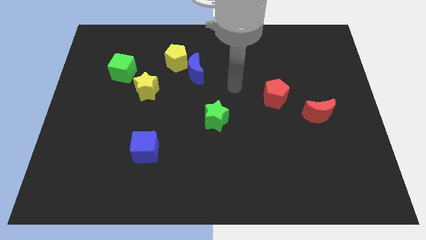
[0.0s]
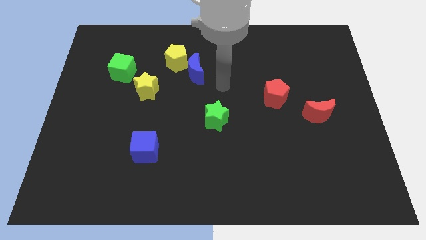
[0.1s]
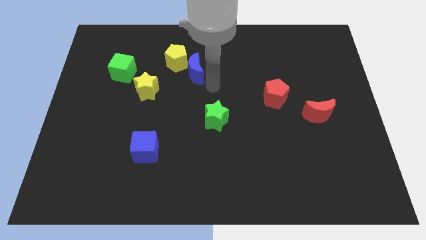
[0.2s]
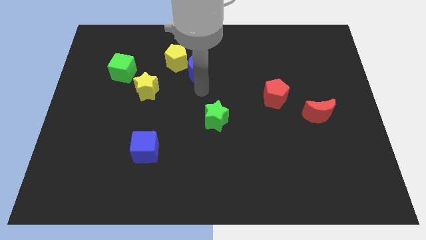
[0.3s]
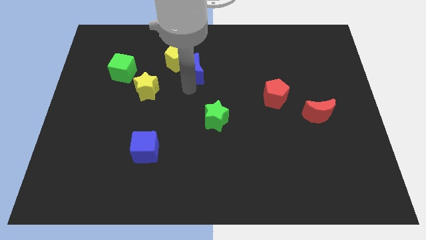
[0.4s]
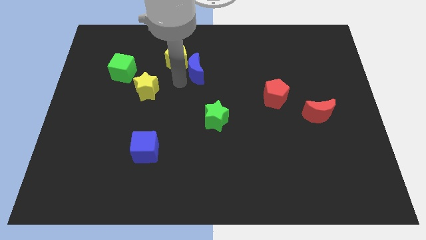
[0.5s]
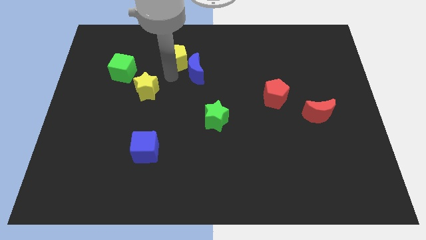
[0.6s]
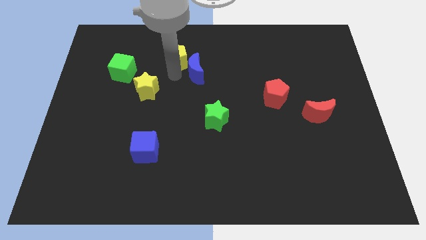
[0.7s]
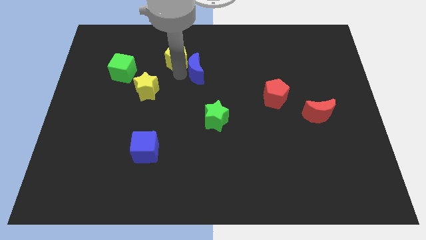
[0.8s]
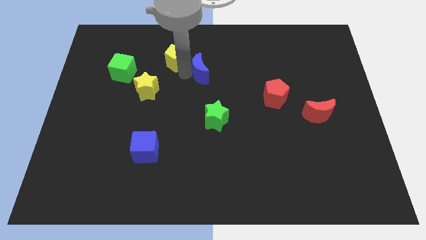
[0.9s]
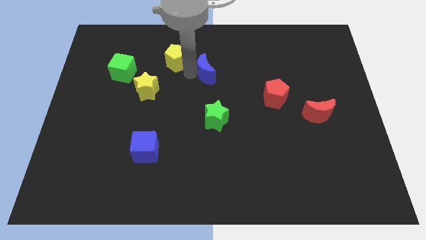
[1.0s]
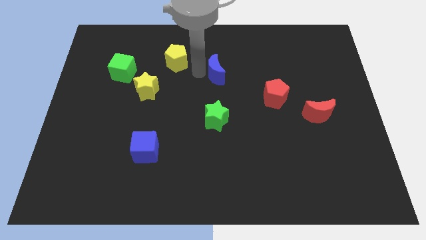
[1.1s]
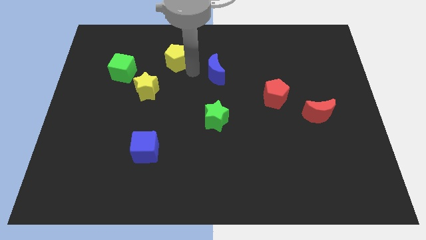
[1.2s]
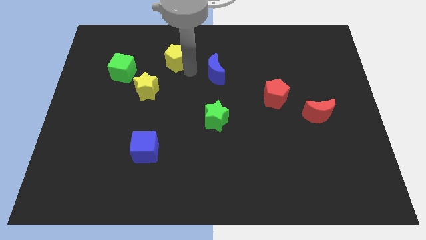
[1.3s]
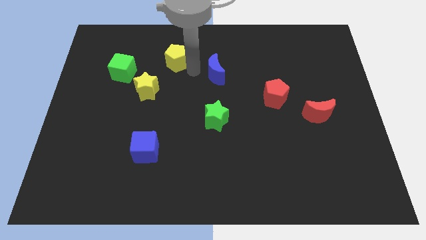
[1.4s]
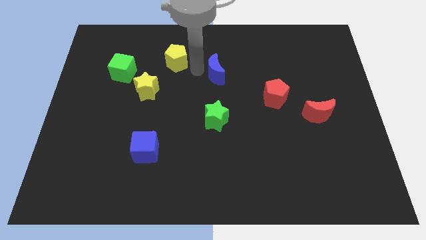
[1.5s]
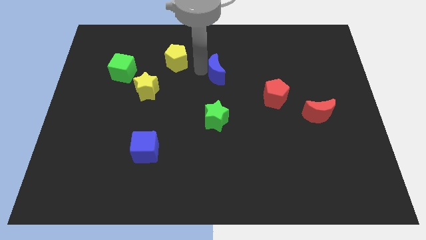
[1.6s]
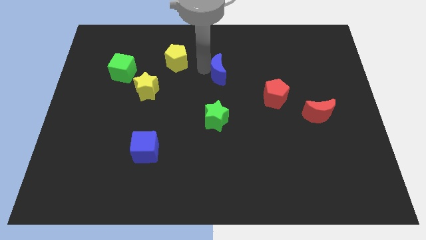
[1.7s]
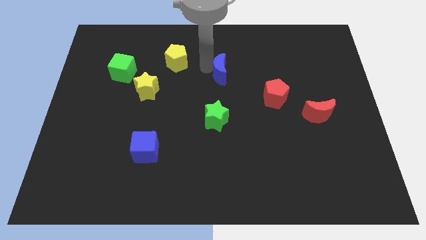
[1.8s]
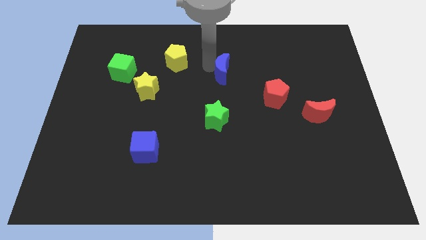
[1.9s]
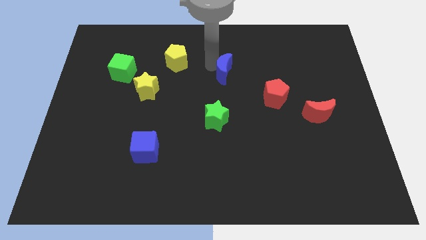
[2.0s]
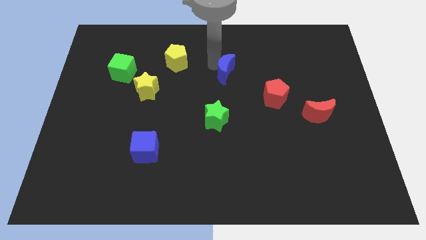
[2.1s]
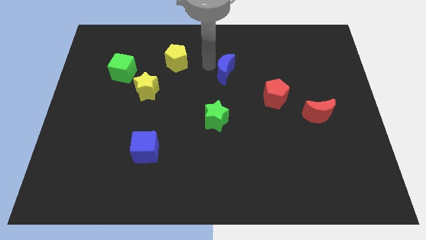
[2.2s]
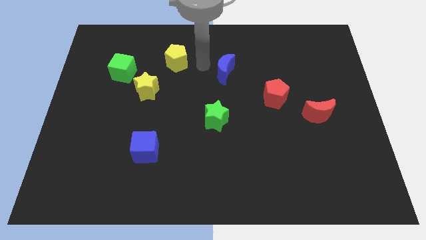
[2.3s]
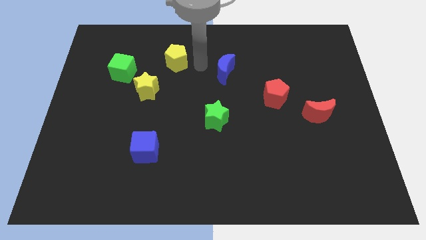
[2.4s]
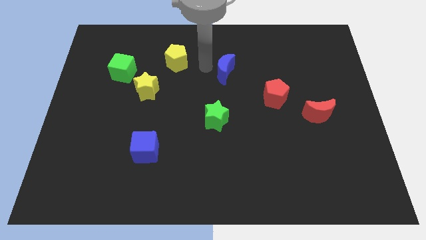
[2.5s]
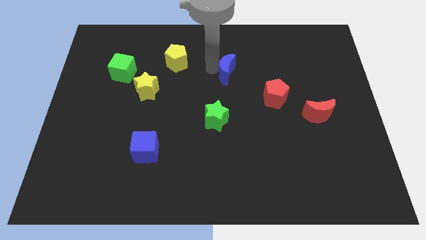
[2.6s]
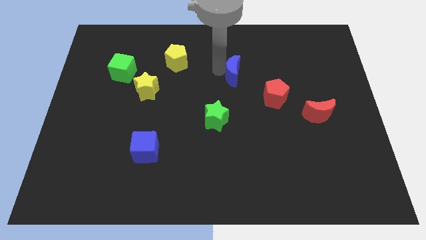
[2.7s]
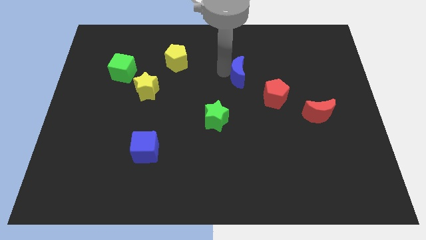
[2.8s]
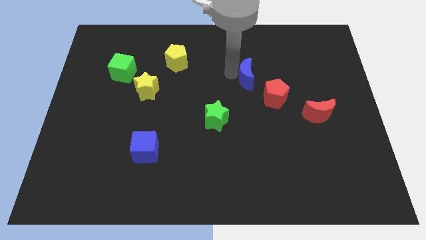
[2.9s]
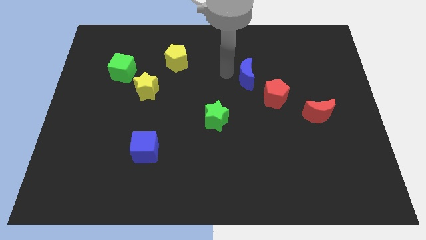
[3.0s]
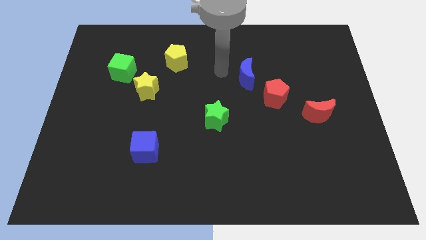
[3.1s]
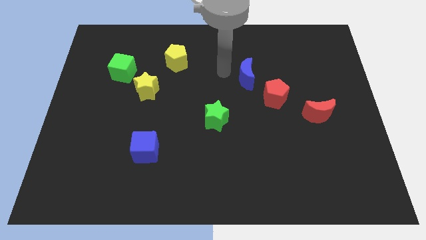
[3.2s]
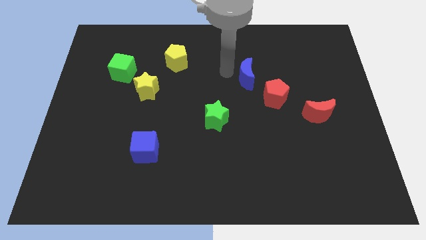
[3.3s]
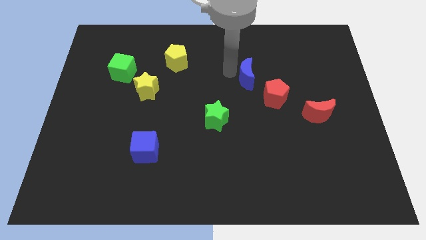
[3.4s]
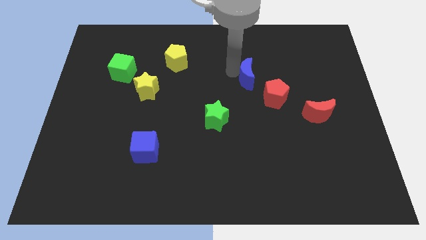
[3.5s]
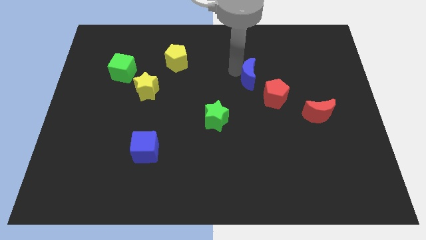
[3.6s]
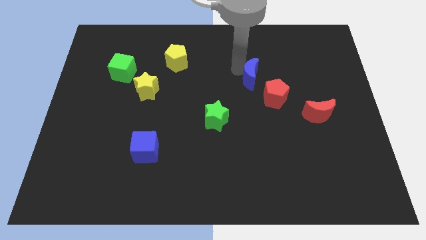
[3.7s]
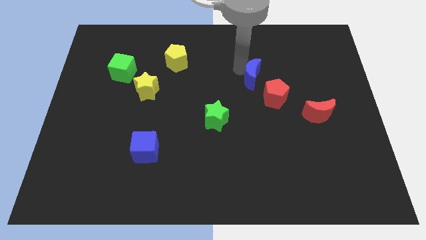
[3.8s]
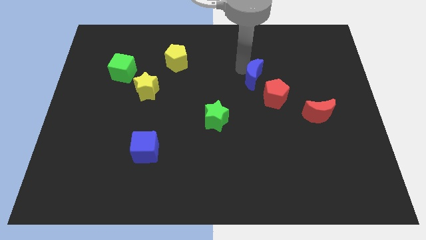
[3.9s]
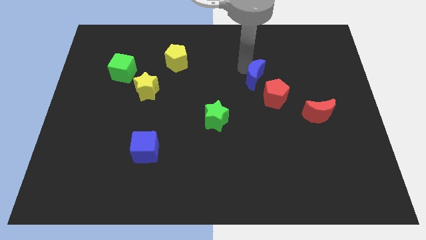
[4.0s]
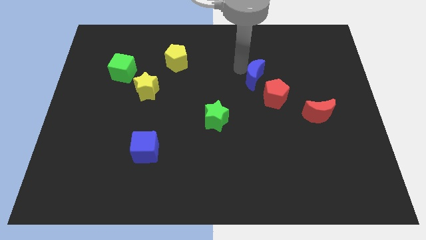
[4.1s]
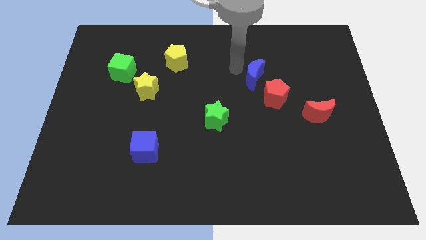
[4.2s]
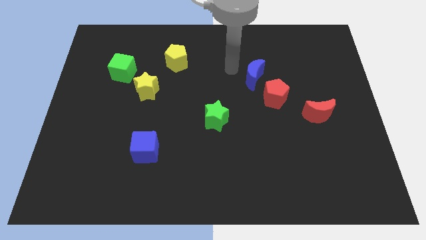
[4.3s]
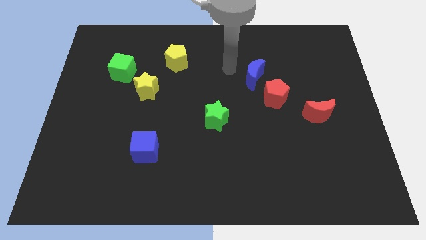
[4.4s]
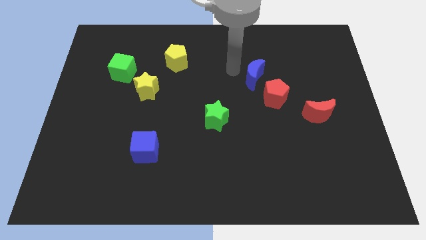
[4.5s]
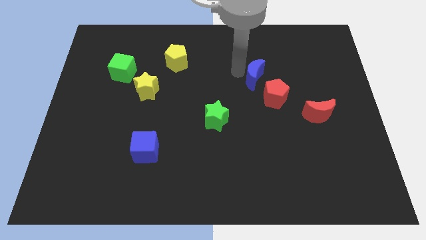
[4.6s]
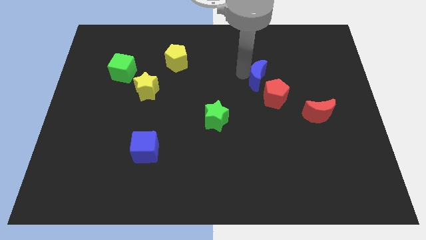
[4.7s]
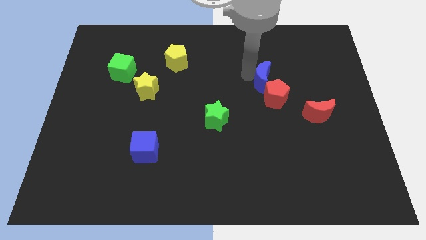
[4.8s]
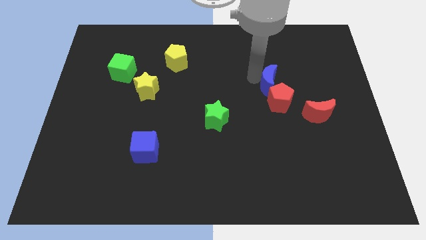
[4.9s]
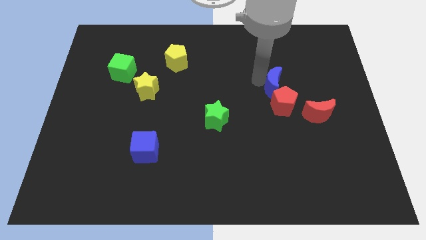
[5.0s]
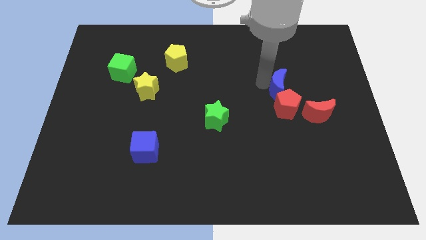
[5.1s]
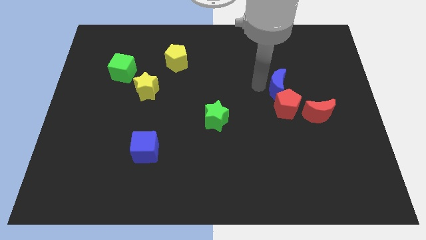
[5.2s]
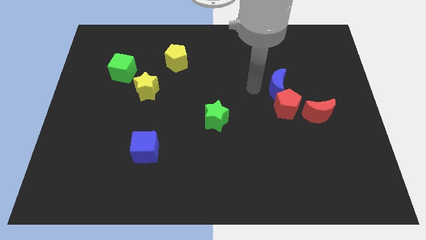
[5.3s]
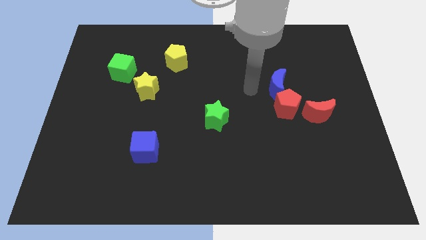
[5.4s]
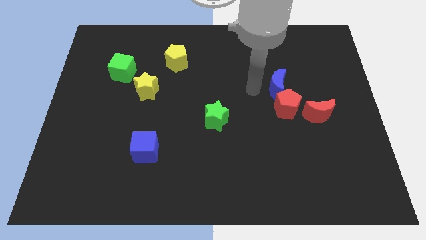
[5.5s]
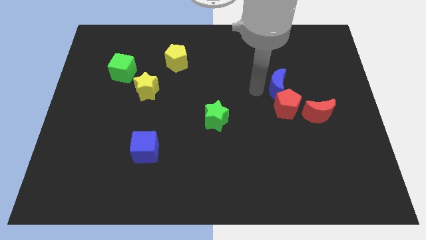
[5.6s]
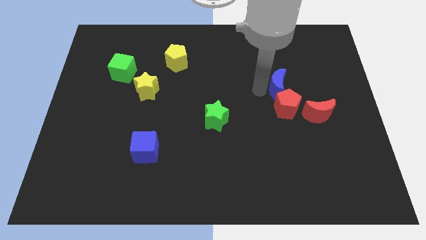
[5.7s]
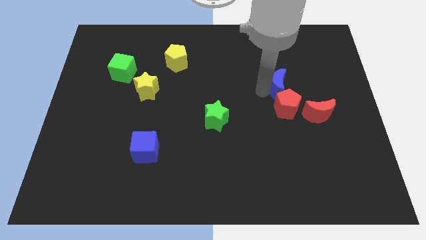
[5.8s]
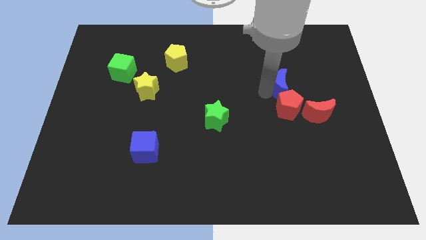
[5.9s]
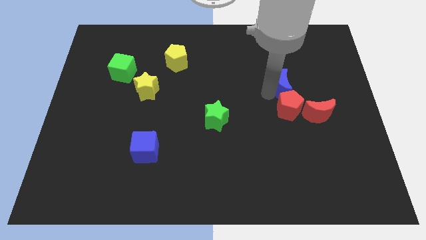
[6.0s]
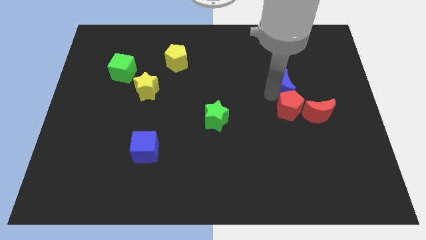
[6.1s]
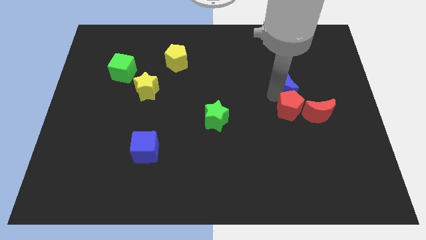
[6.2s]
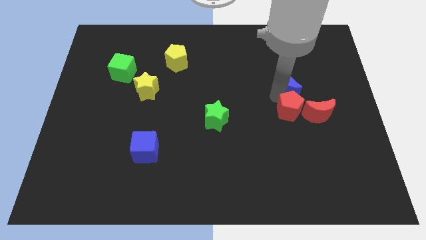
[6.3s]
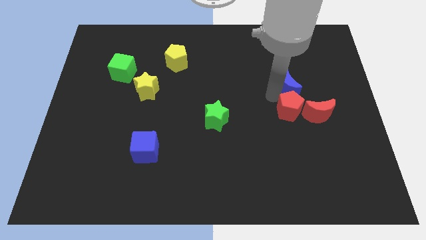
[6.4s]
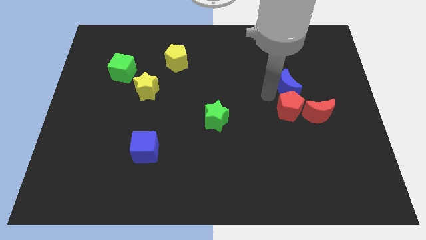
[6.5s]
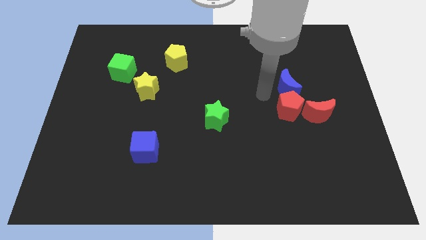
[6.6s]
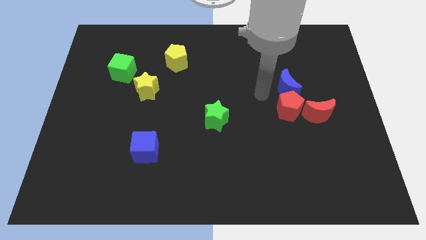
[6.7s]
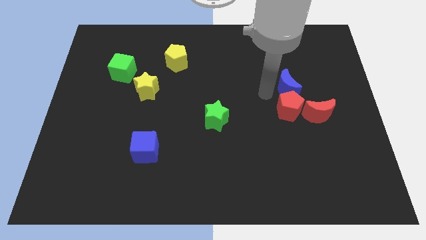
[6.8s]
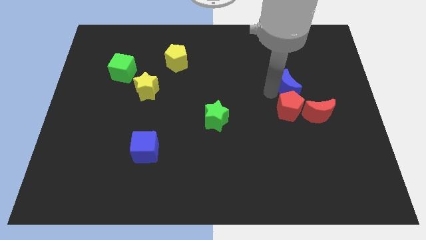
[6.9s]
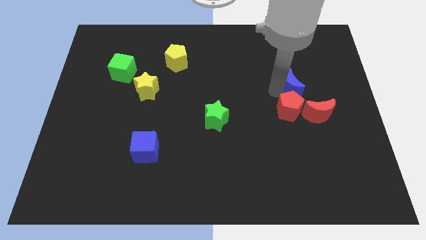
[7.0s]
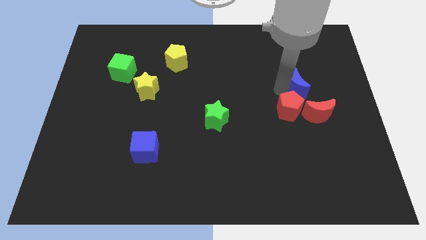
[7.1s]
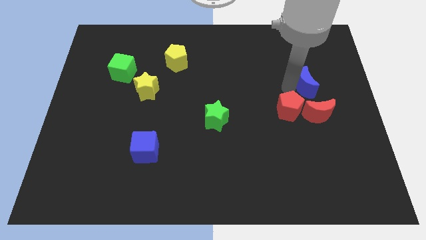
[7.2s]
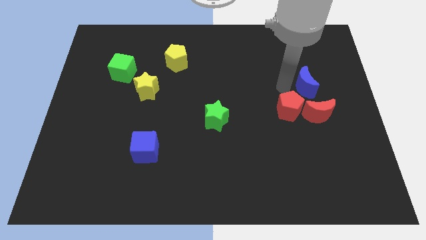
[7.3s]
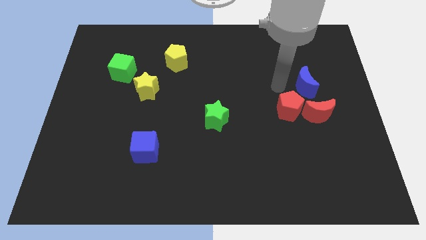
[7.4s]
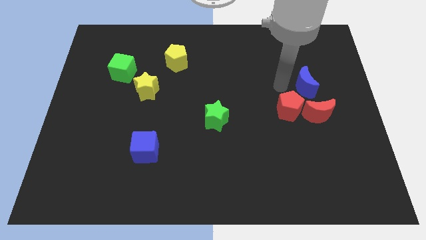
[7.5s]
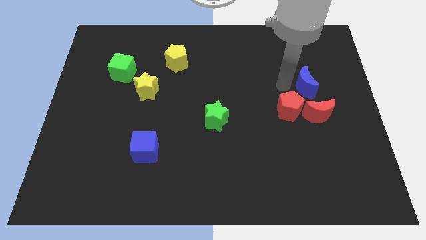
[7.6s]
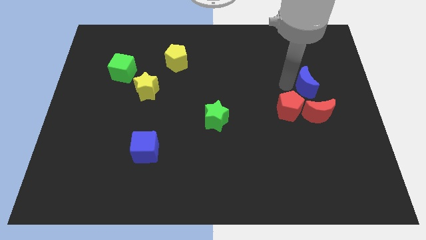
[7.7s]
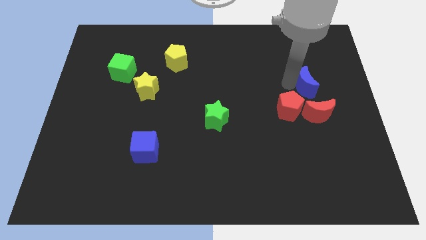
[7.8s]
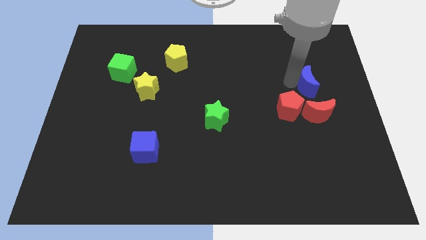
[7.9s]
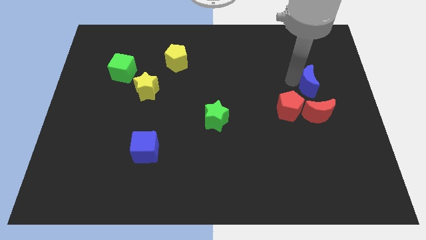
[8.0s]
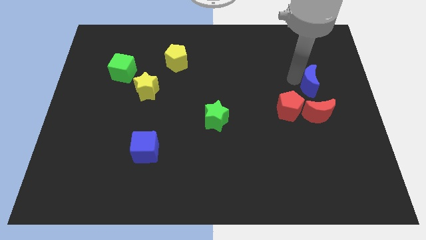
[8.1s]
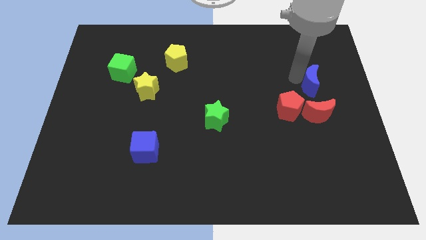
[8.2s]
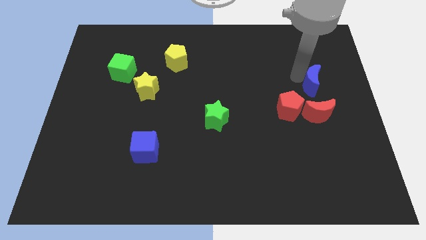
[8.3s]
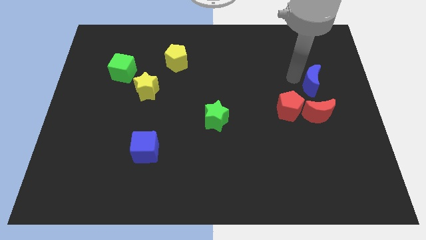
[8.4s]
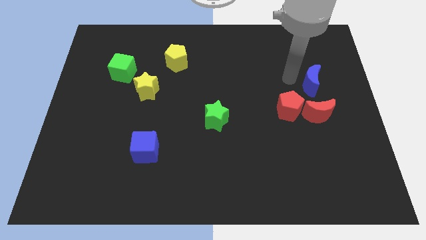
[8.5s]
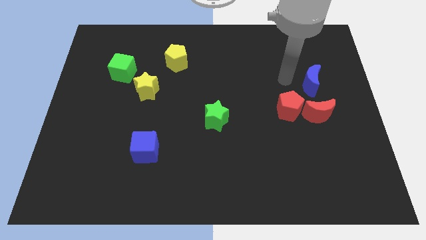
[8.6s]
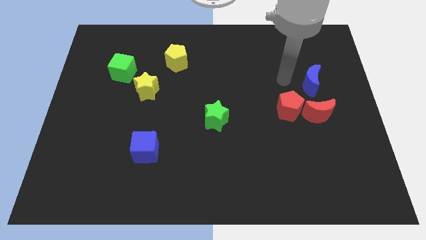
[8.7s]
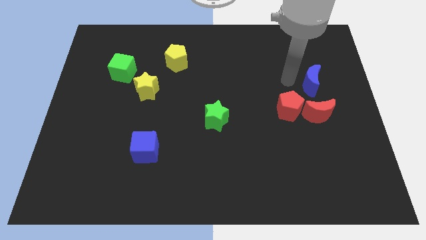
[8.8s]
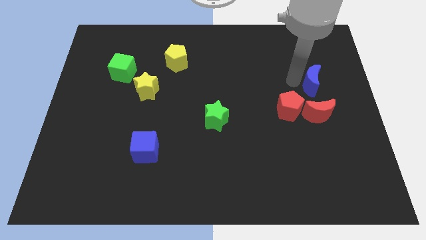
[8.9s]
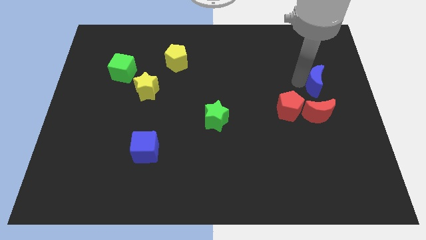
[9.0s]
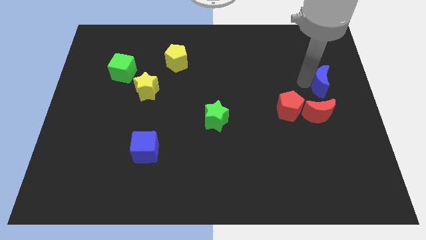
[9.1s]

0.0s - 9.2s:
slide the blue moon to the right side
